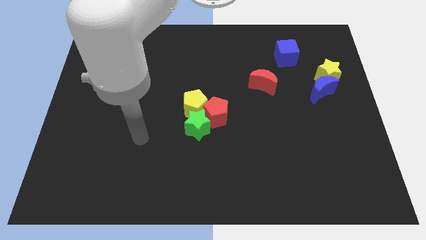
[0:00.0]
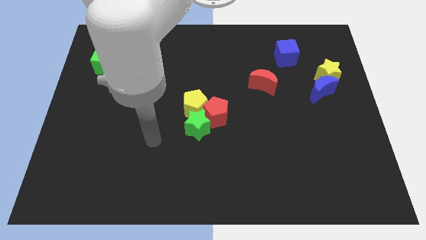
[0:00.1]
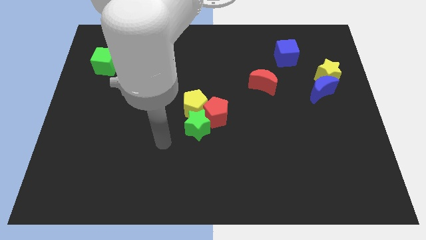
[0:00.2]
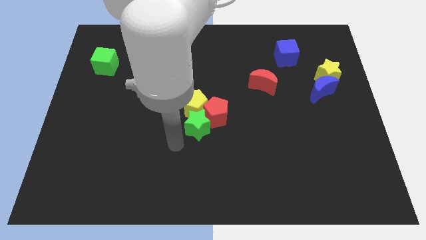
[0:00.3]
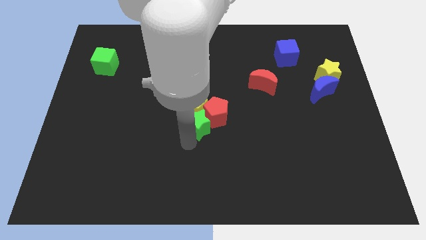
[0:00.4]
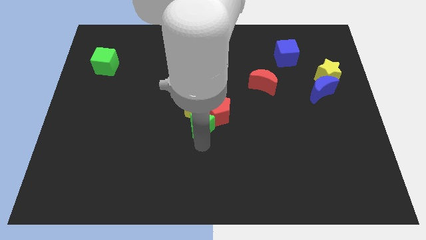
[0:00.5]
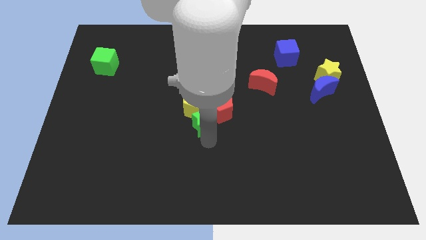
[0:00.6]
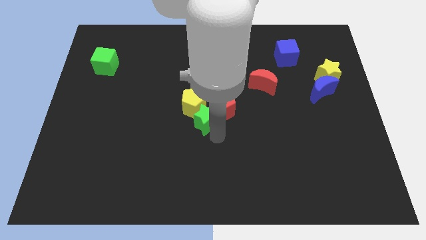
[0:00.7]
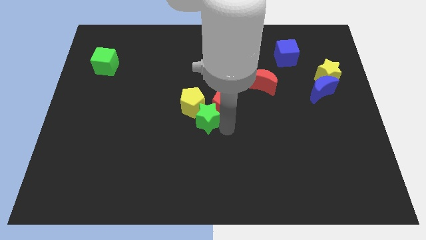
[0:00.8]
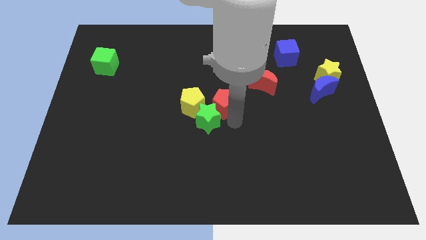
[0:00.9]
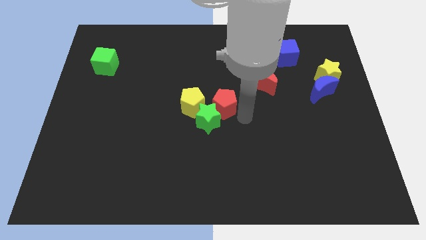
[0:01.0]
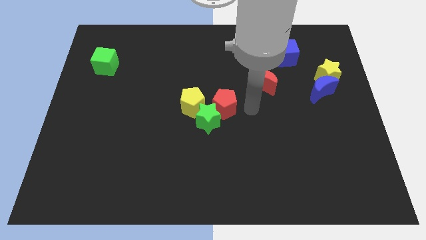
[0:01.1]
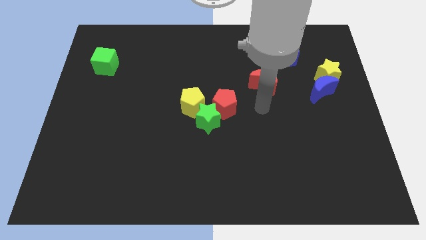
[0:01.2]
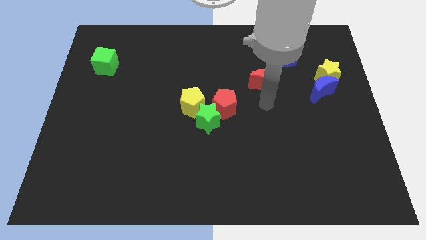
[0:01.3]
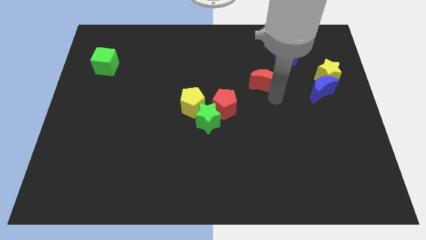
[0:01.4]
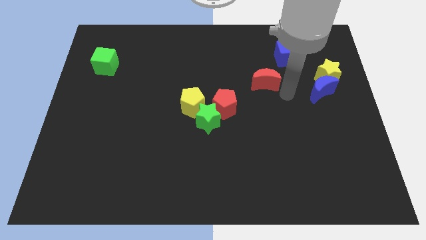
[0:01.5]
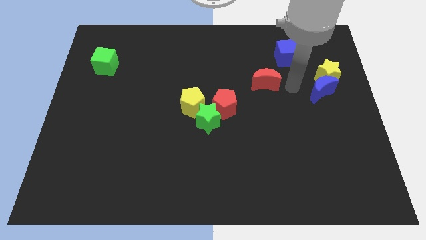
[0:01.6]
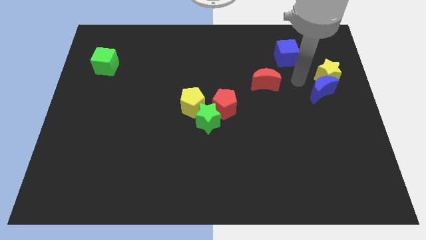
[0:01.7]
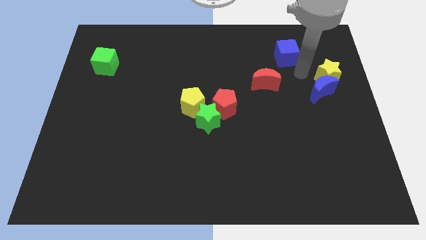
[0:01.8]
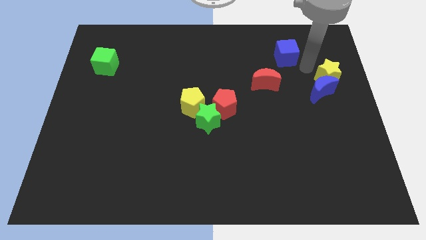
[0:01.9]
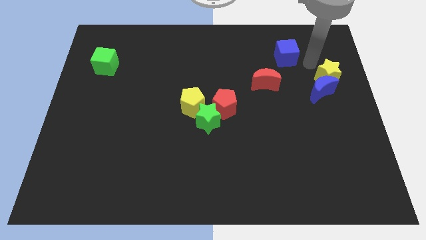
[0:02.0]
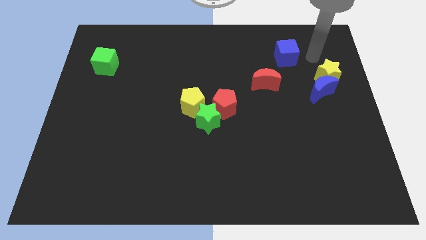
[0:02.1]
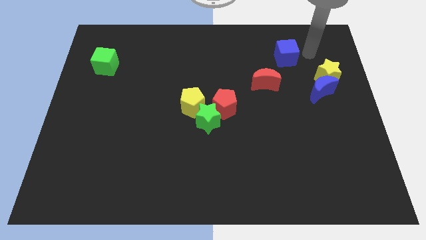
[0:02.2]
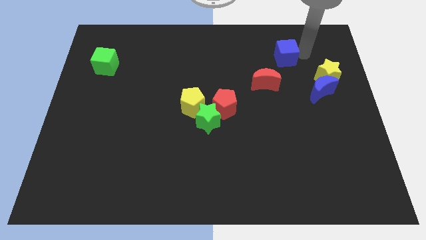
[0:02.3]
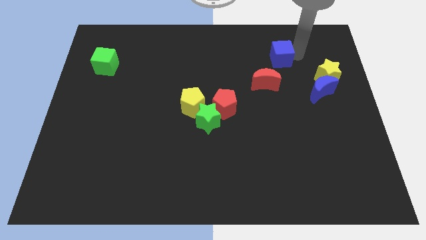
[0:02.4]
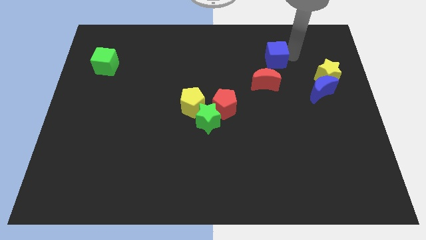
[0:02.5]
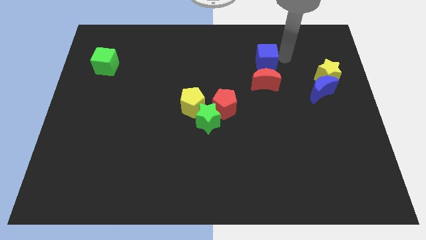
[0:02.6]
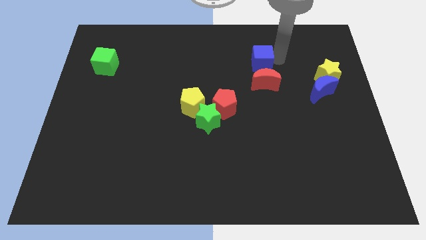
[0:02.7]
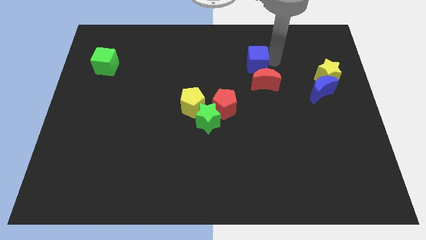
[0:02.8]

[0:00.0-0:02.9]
push the blue cube left a little bit

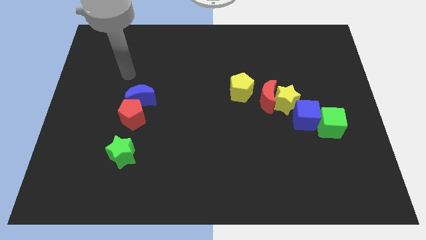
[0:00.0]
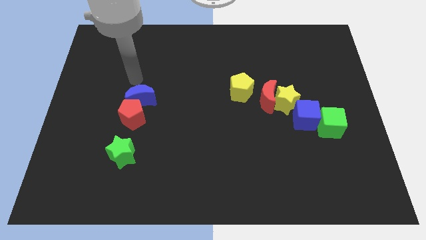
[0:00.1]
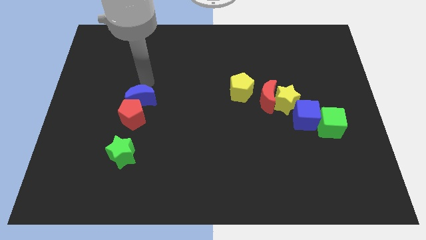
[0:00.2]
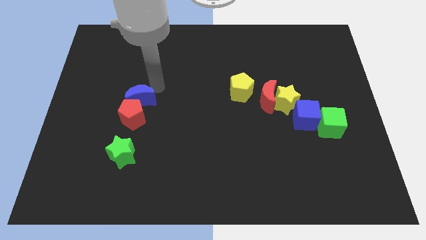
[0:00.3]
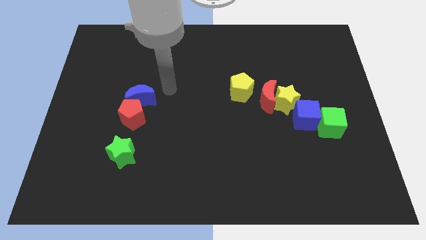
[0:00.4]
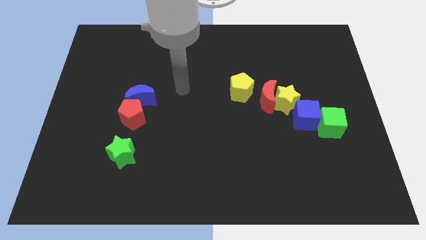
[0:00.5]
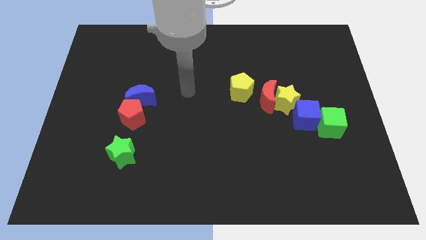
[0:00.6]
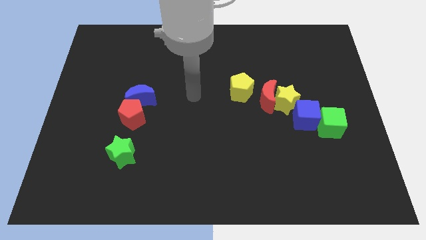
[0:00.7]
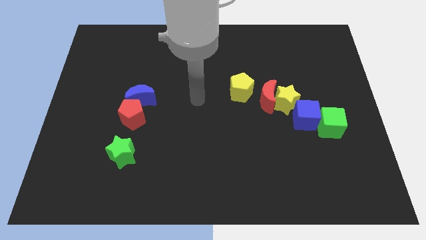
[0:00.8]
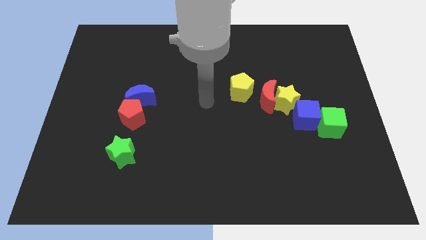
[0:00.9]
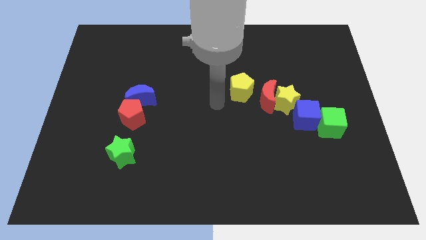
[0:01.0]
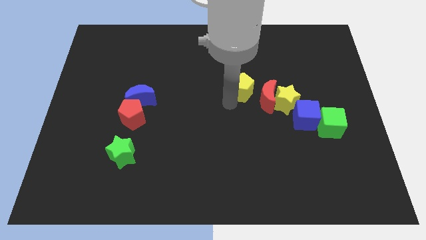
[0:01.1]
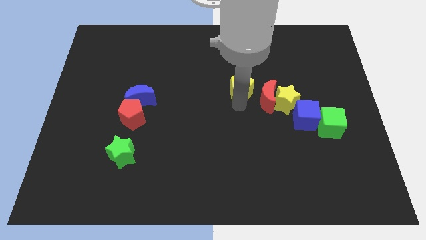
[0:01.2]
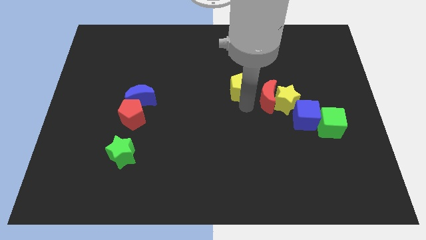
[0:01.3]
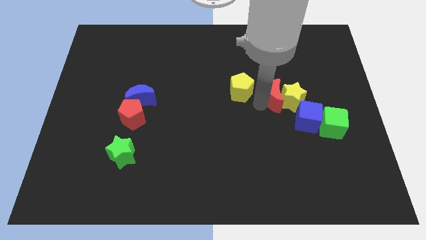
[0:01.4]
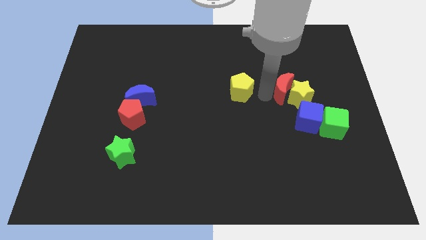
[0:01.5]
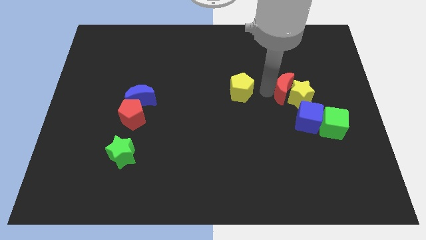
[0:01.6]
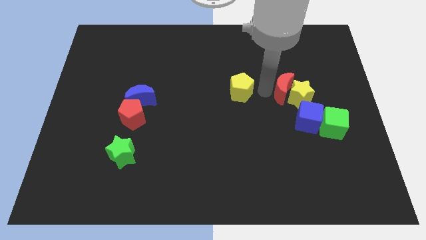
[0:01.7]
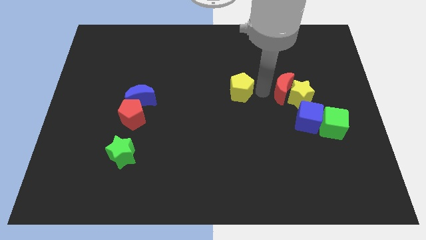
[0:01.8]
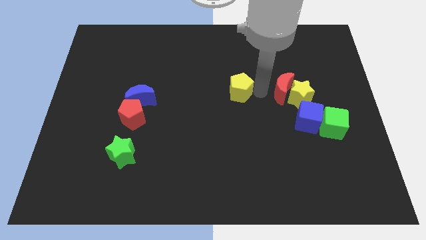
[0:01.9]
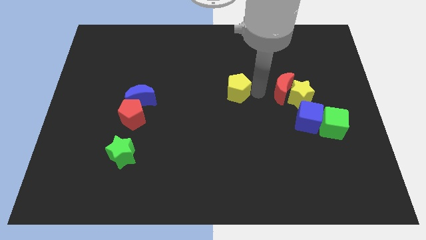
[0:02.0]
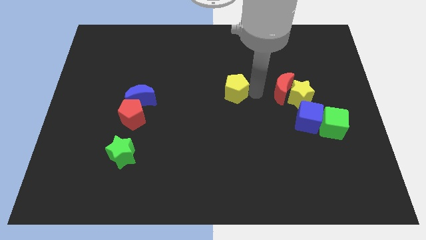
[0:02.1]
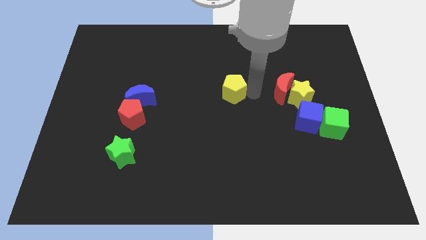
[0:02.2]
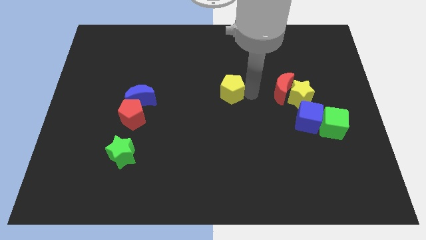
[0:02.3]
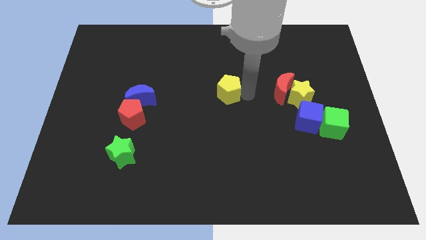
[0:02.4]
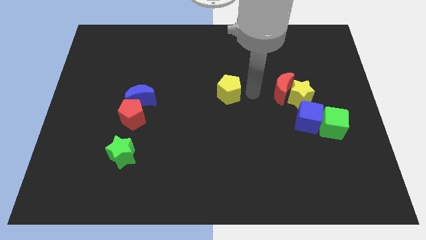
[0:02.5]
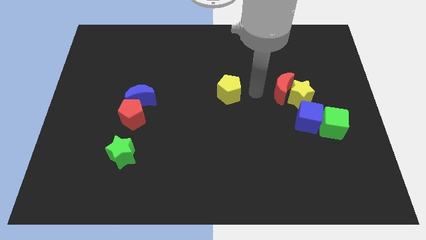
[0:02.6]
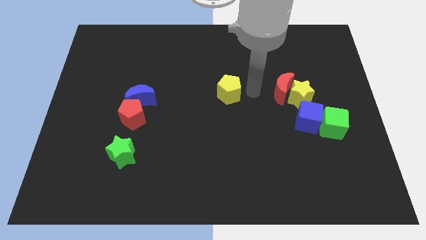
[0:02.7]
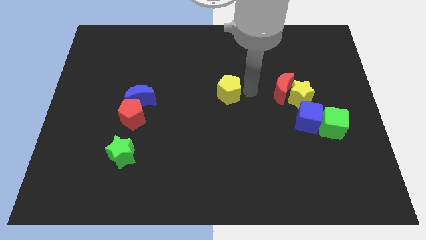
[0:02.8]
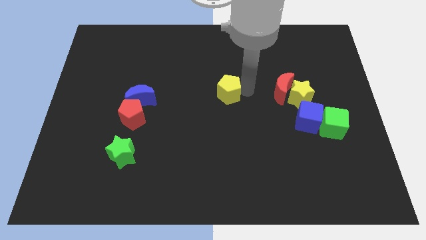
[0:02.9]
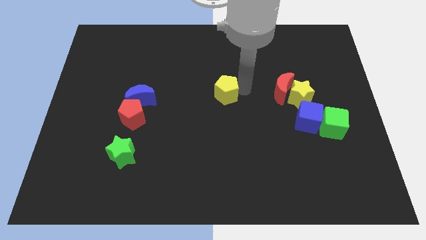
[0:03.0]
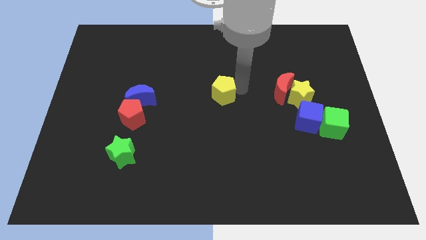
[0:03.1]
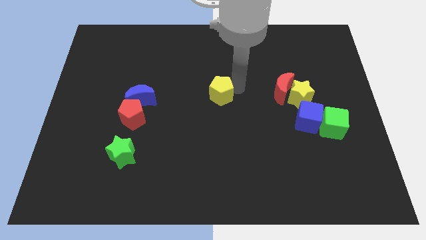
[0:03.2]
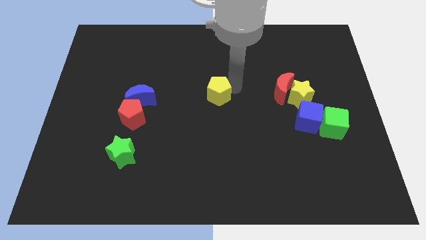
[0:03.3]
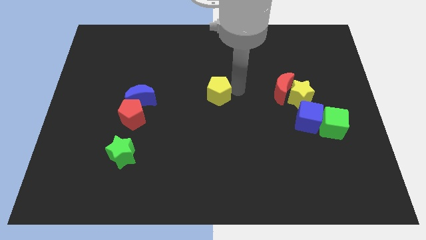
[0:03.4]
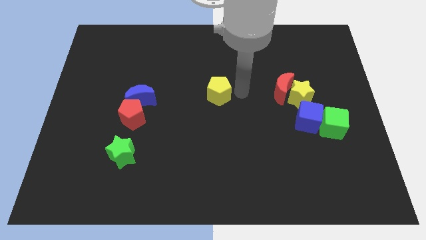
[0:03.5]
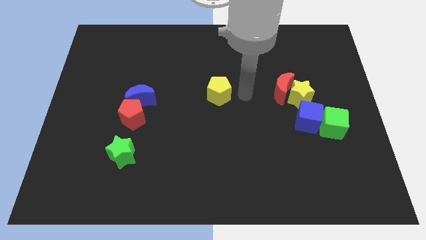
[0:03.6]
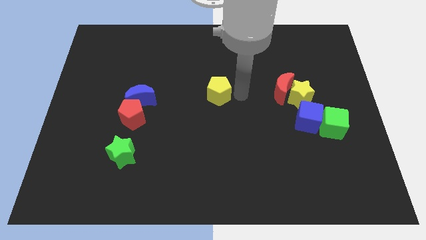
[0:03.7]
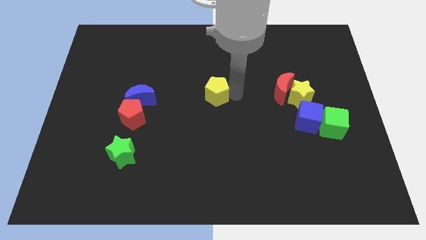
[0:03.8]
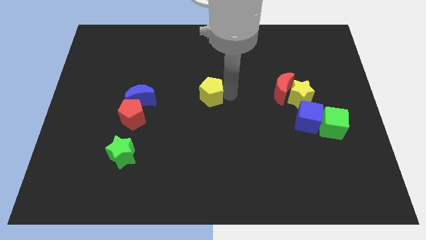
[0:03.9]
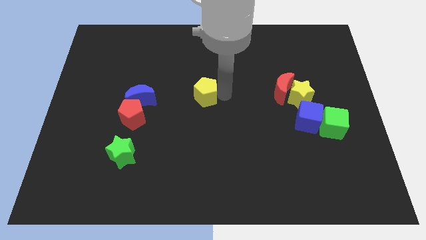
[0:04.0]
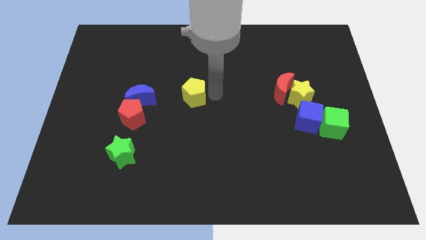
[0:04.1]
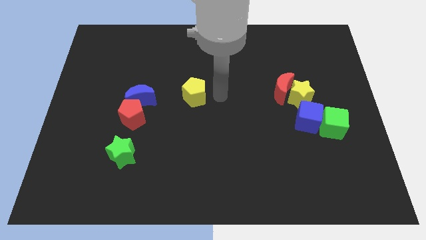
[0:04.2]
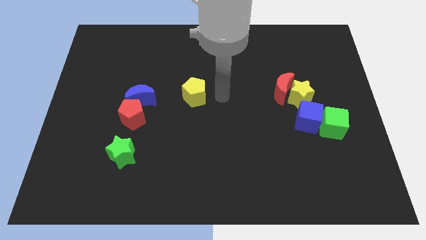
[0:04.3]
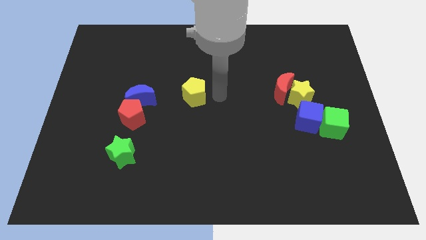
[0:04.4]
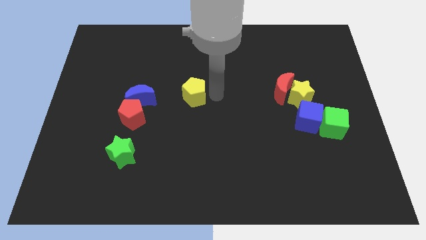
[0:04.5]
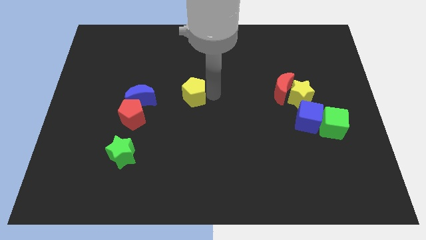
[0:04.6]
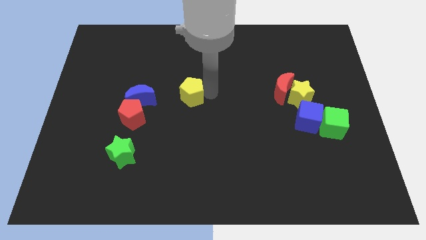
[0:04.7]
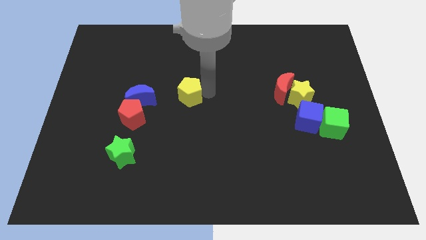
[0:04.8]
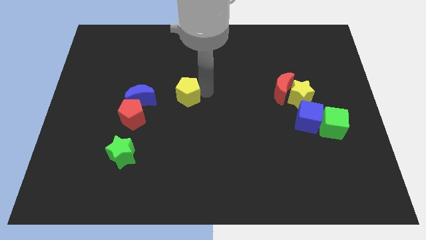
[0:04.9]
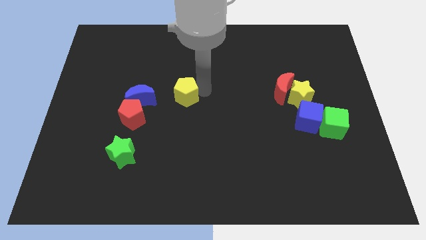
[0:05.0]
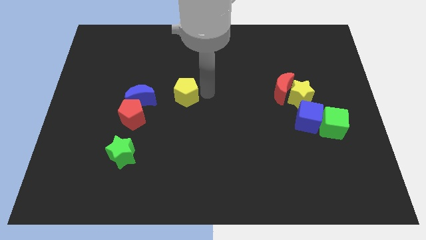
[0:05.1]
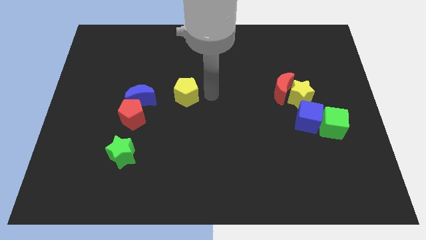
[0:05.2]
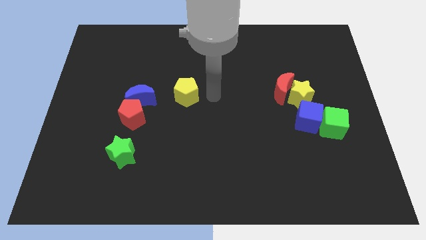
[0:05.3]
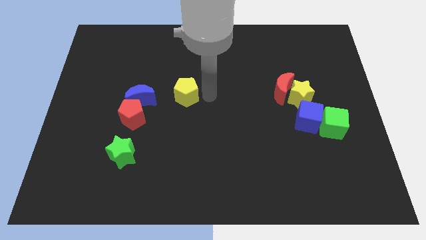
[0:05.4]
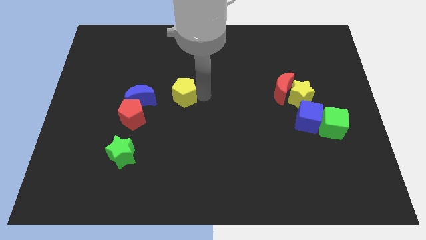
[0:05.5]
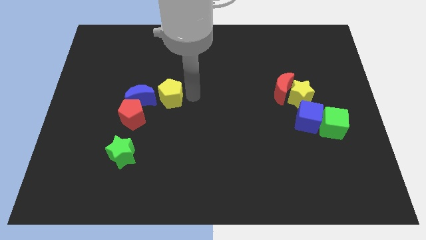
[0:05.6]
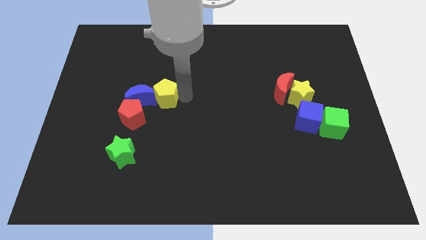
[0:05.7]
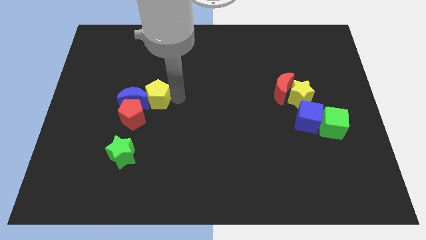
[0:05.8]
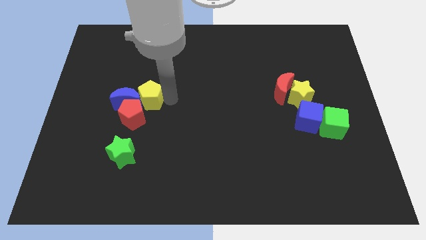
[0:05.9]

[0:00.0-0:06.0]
push the yellow pentagon to the left
